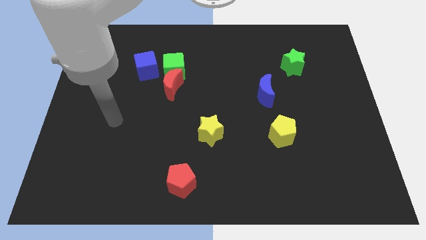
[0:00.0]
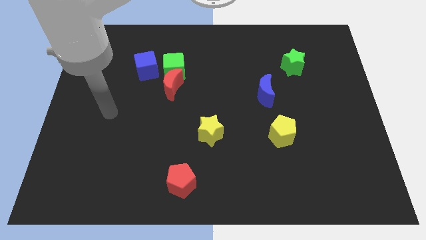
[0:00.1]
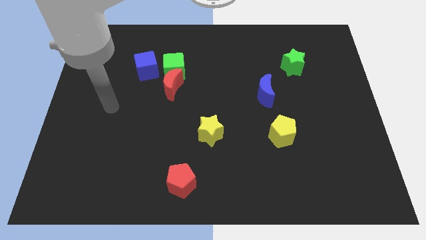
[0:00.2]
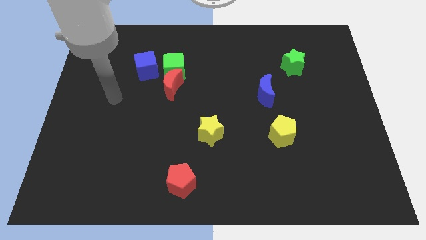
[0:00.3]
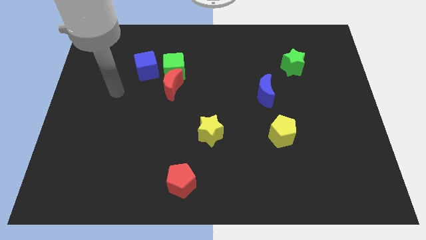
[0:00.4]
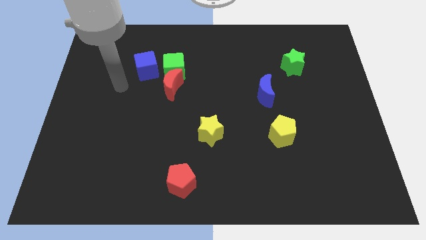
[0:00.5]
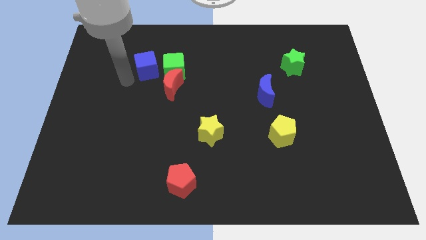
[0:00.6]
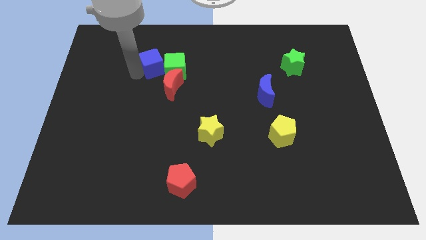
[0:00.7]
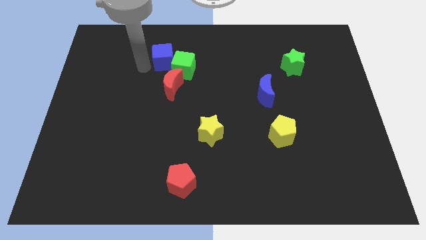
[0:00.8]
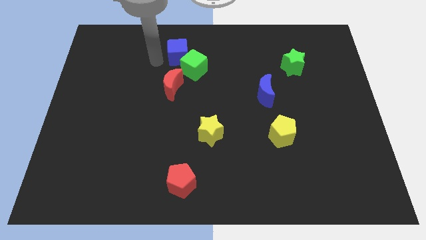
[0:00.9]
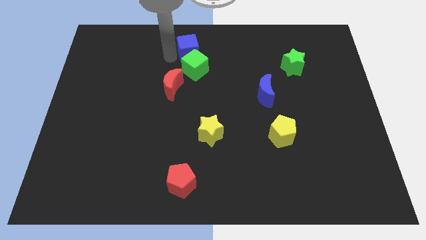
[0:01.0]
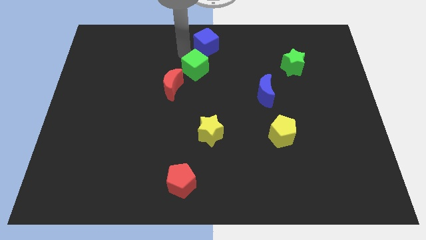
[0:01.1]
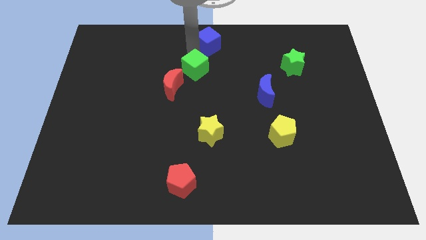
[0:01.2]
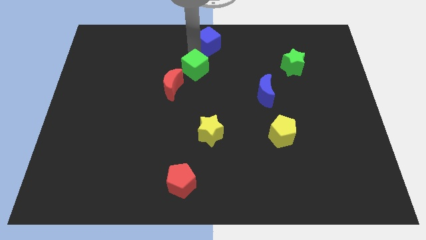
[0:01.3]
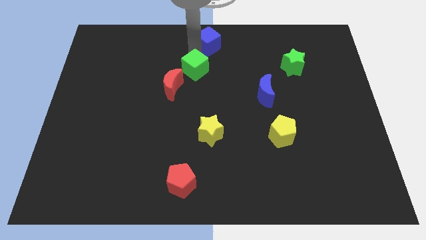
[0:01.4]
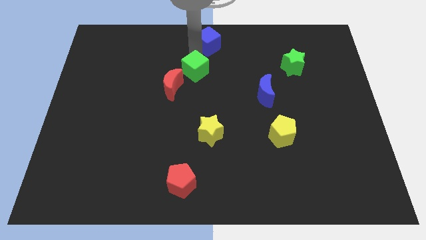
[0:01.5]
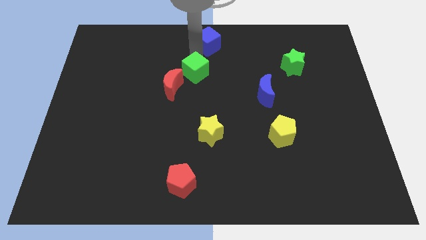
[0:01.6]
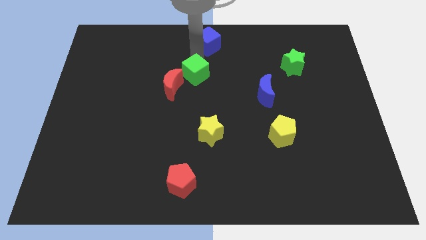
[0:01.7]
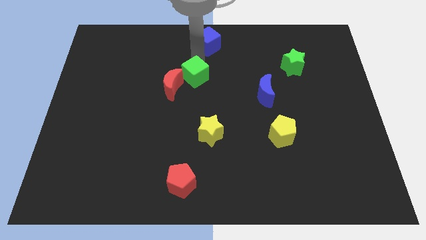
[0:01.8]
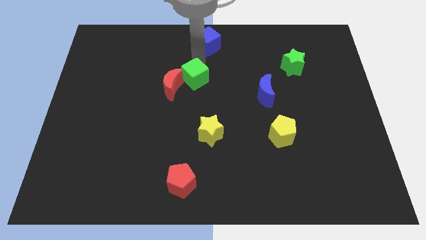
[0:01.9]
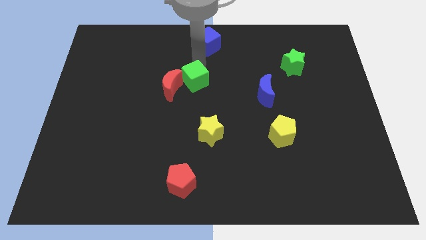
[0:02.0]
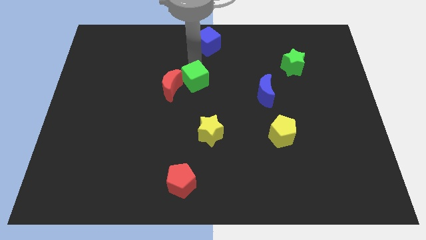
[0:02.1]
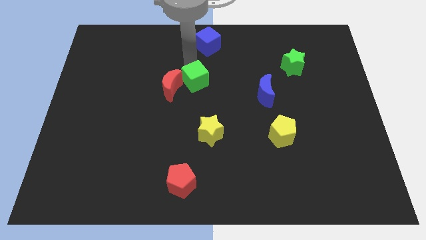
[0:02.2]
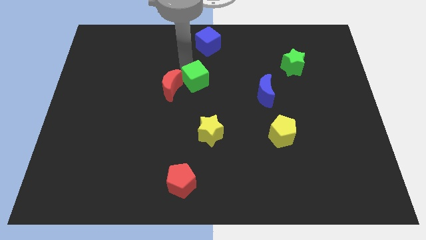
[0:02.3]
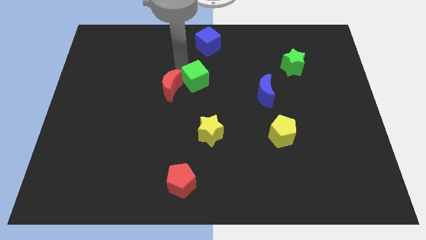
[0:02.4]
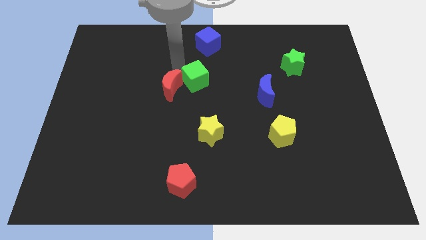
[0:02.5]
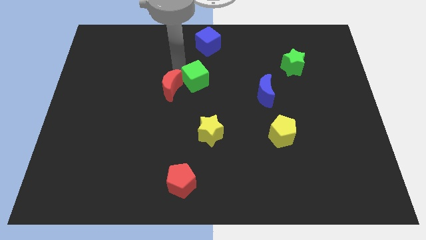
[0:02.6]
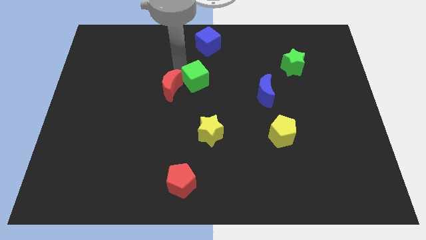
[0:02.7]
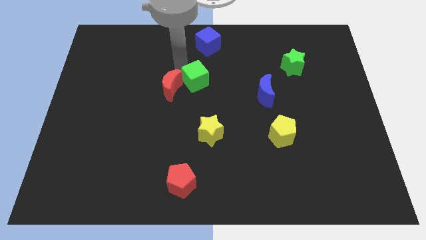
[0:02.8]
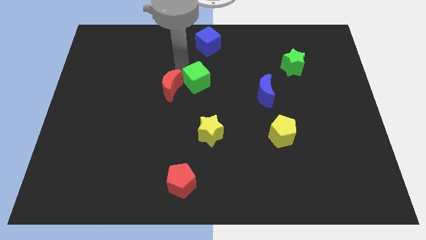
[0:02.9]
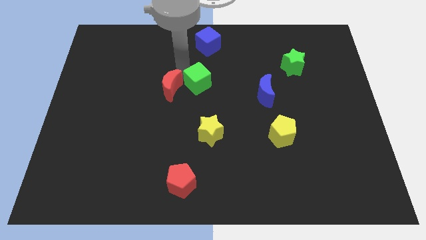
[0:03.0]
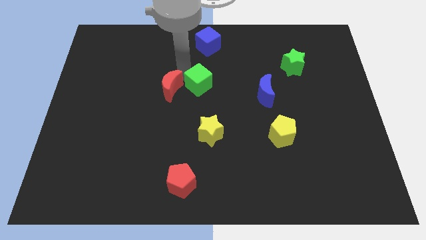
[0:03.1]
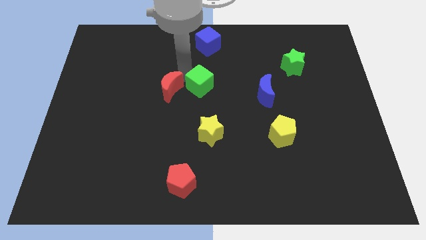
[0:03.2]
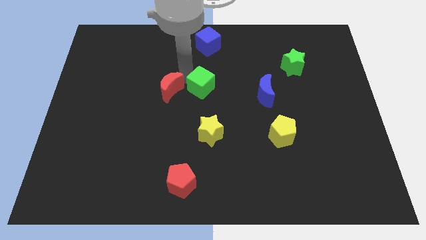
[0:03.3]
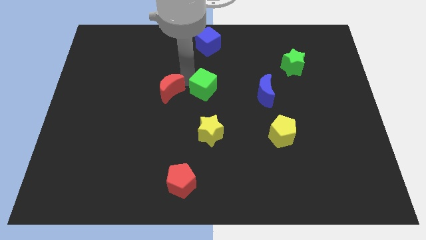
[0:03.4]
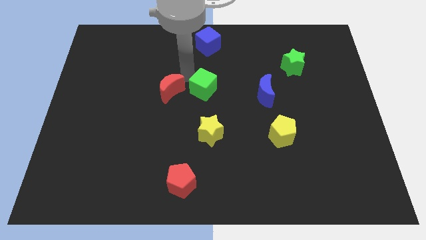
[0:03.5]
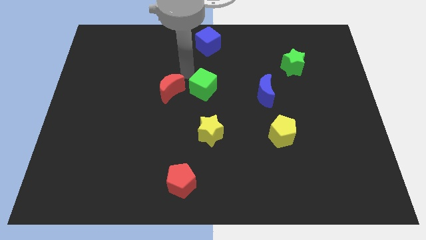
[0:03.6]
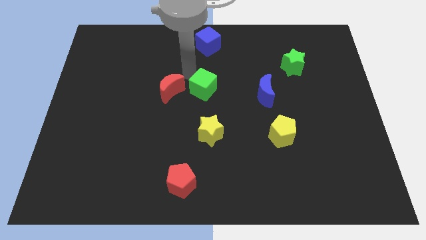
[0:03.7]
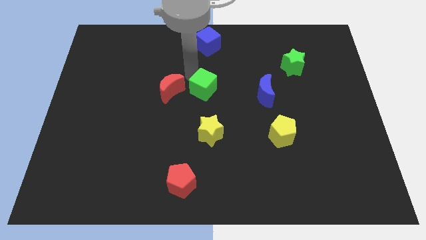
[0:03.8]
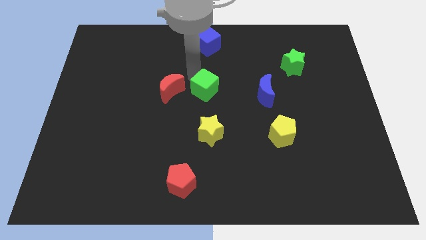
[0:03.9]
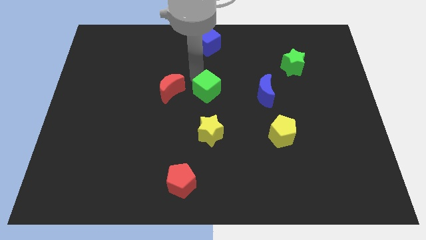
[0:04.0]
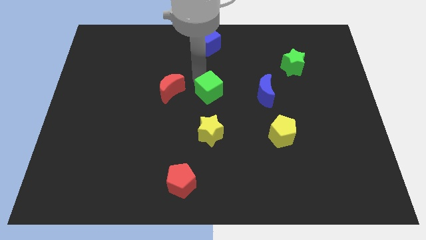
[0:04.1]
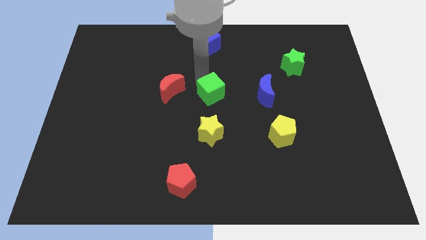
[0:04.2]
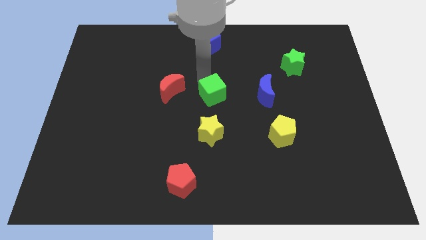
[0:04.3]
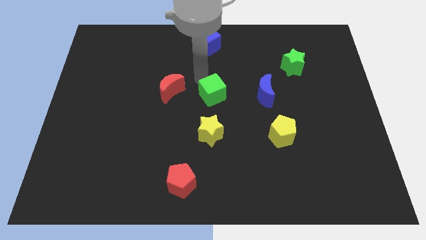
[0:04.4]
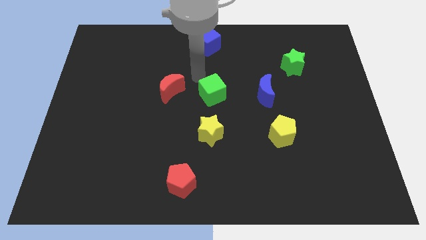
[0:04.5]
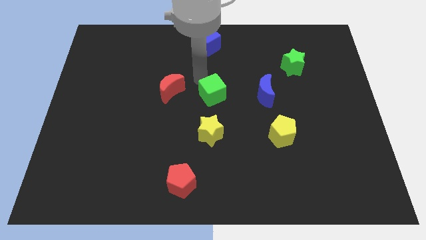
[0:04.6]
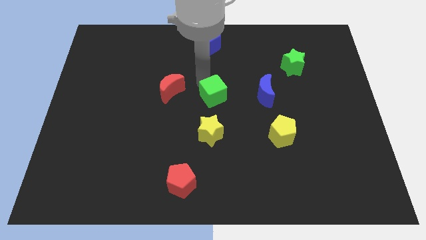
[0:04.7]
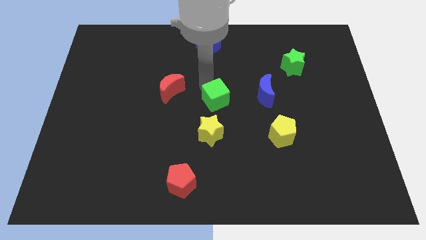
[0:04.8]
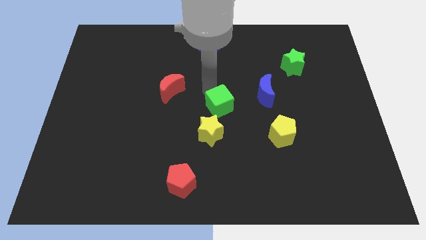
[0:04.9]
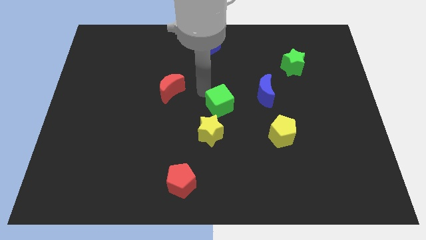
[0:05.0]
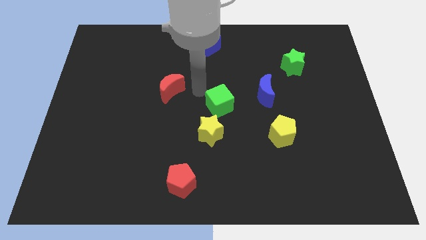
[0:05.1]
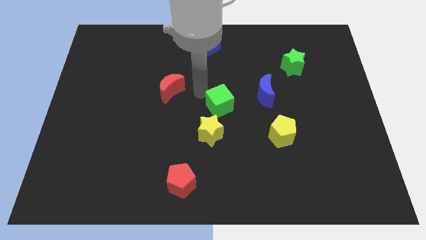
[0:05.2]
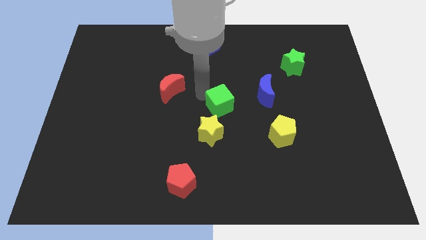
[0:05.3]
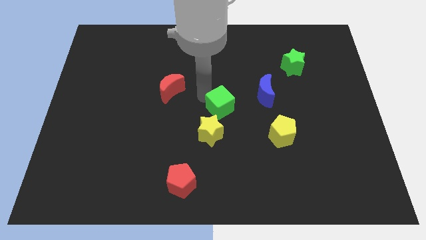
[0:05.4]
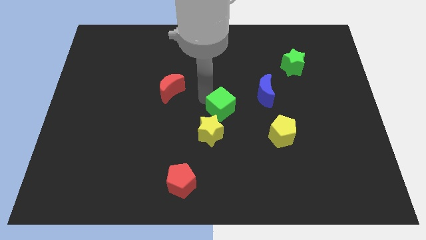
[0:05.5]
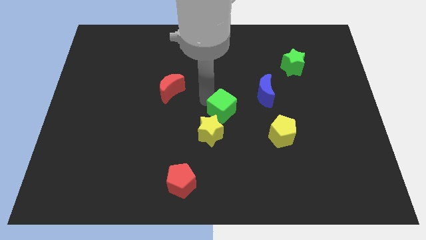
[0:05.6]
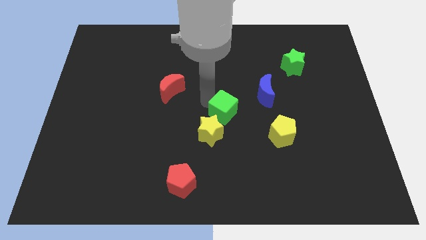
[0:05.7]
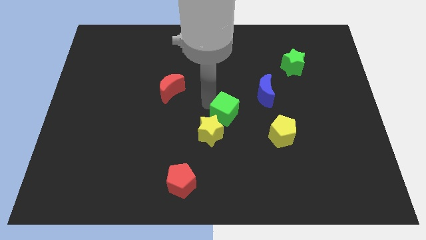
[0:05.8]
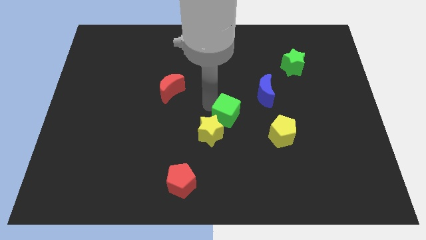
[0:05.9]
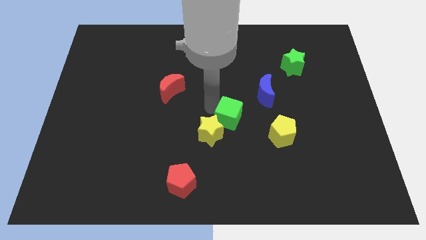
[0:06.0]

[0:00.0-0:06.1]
slide the green cube down and then to the right

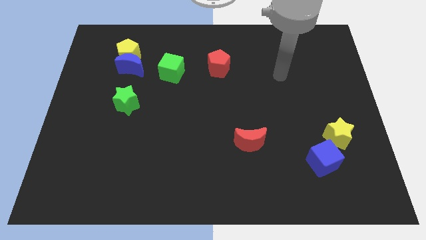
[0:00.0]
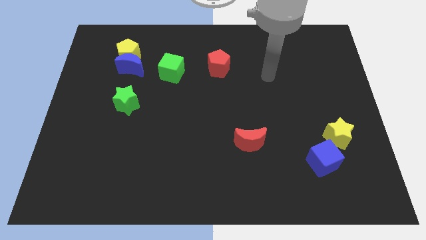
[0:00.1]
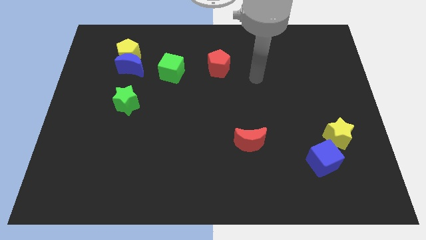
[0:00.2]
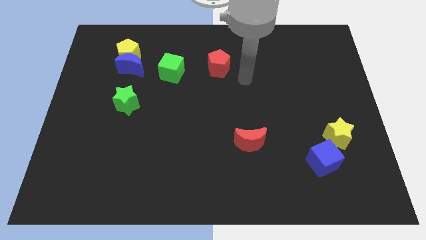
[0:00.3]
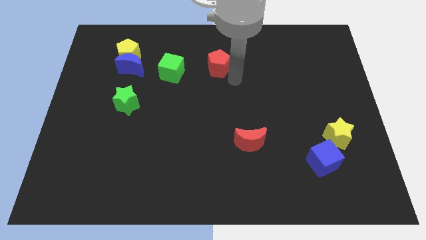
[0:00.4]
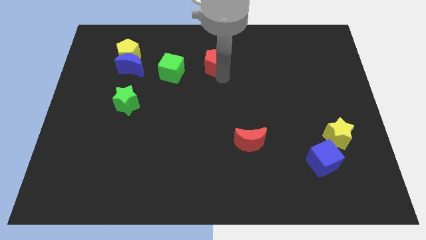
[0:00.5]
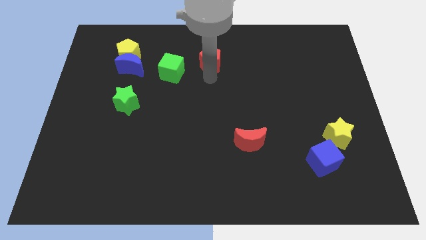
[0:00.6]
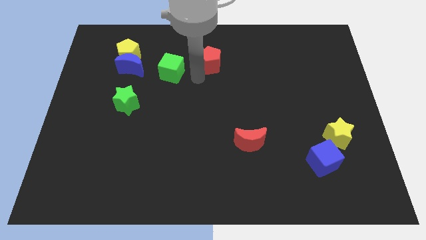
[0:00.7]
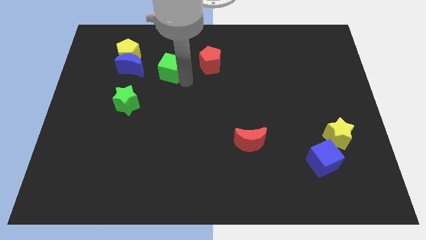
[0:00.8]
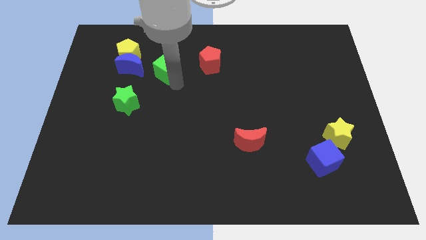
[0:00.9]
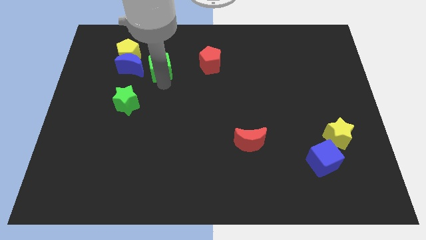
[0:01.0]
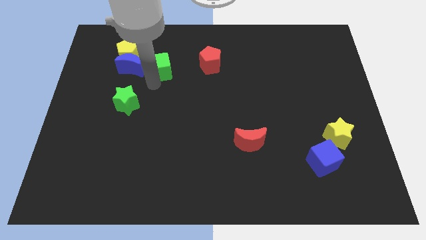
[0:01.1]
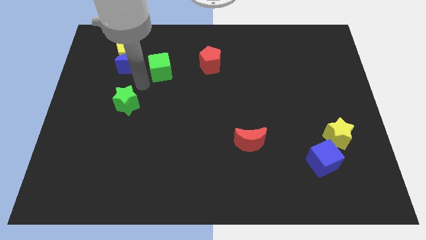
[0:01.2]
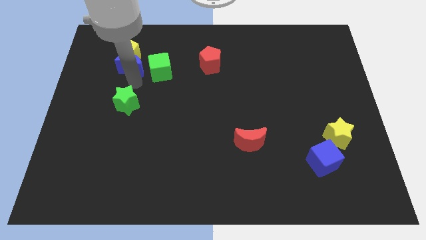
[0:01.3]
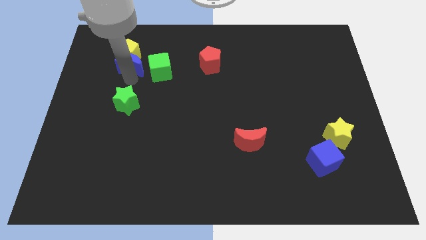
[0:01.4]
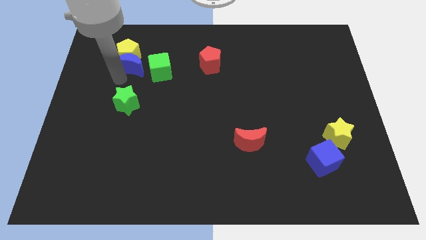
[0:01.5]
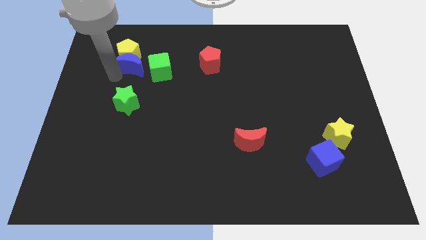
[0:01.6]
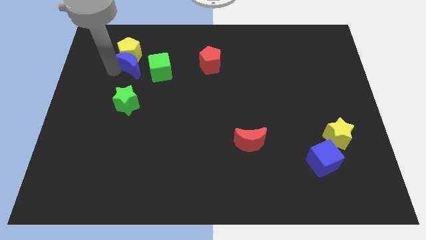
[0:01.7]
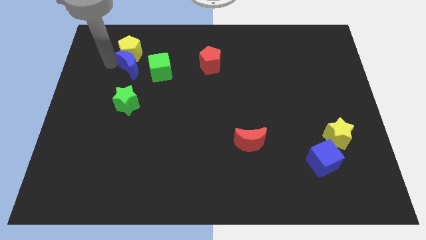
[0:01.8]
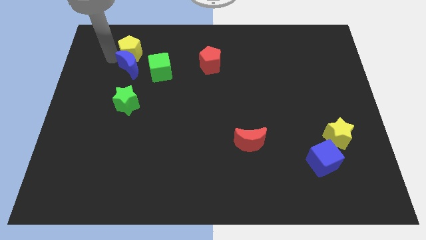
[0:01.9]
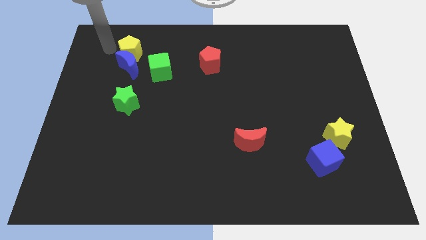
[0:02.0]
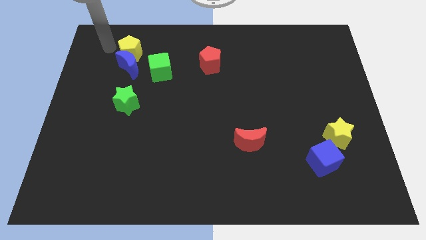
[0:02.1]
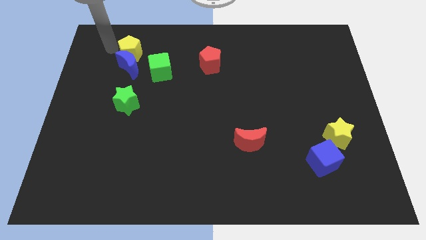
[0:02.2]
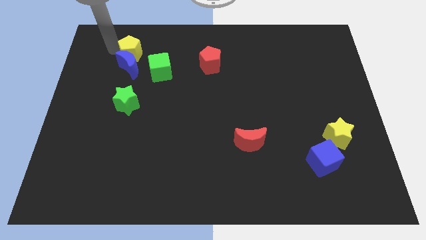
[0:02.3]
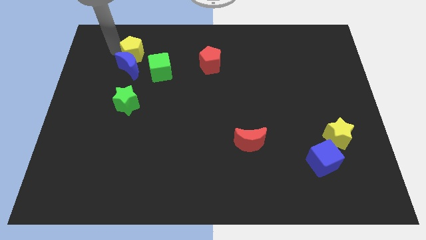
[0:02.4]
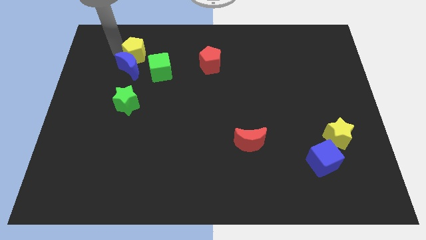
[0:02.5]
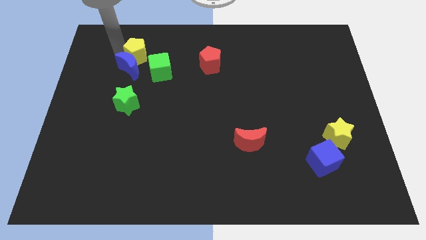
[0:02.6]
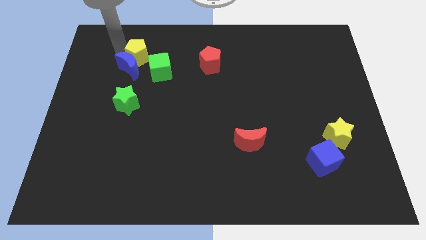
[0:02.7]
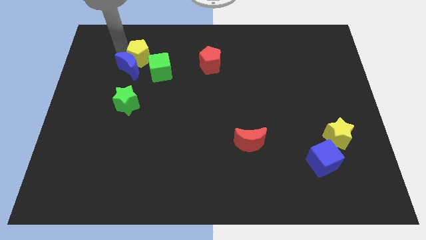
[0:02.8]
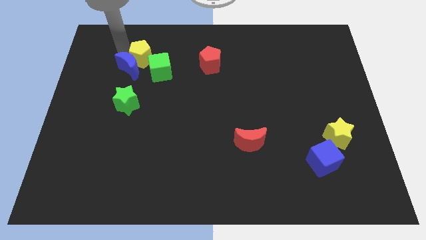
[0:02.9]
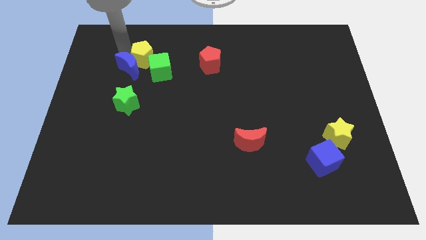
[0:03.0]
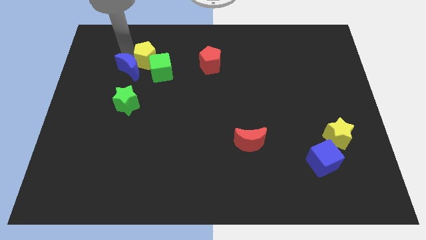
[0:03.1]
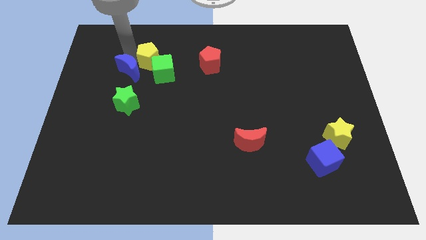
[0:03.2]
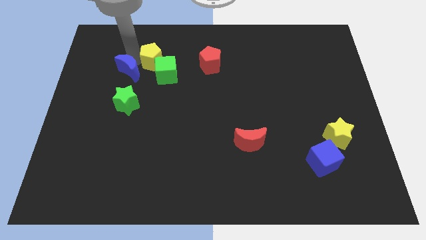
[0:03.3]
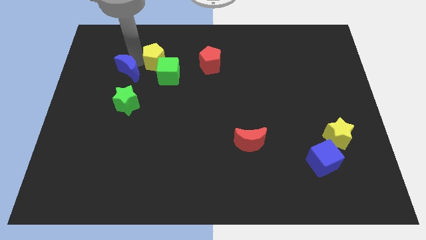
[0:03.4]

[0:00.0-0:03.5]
push the yellow pentagon to the right a bit
